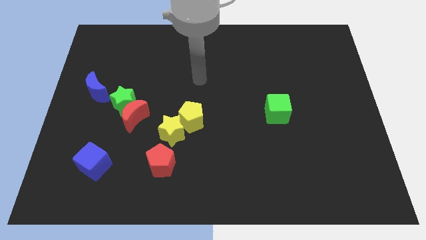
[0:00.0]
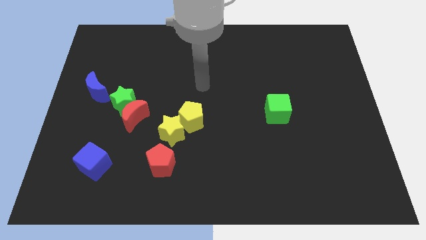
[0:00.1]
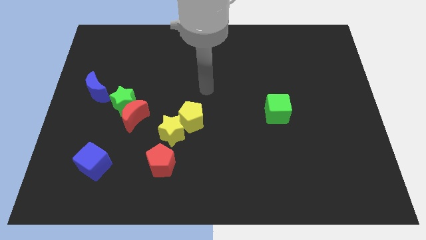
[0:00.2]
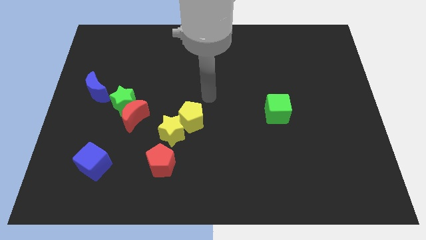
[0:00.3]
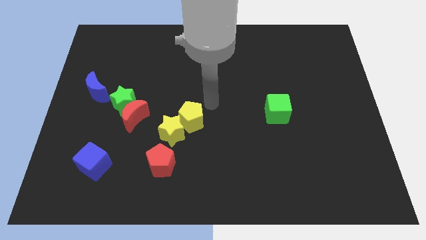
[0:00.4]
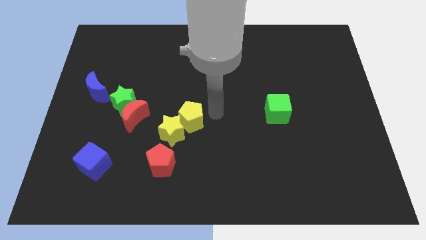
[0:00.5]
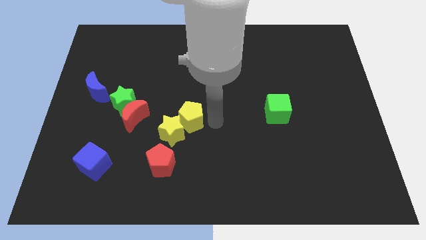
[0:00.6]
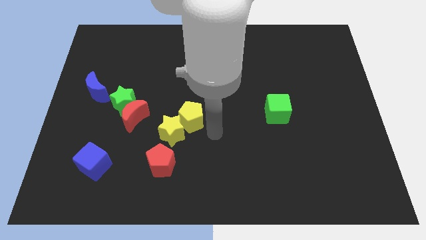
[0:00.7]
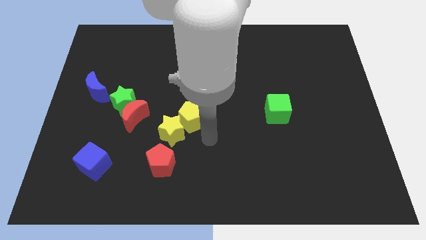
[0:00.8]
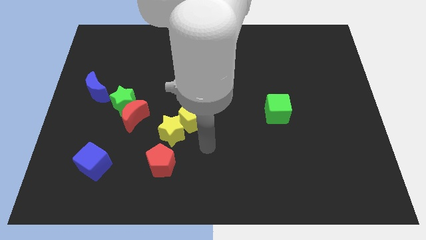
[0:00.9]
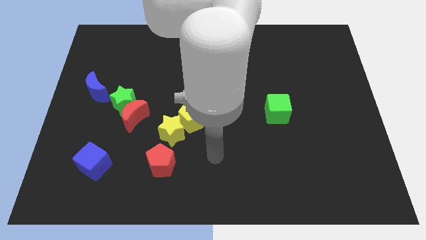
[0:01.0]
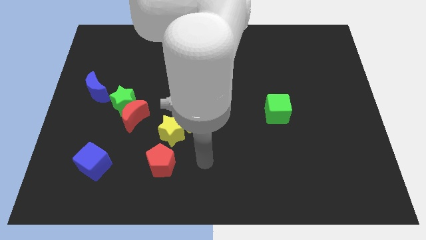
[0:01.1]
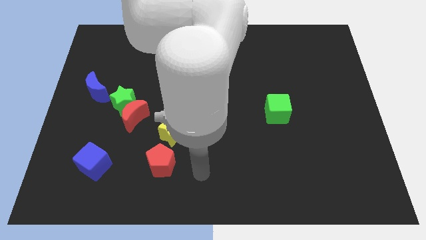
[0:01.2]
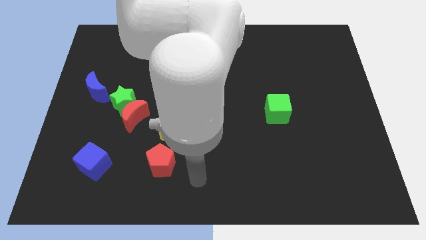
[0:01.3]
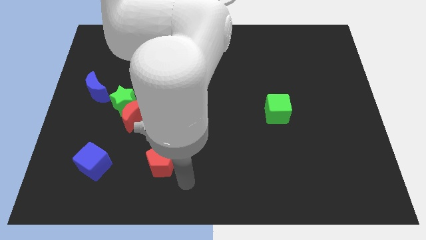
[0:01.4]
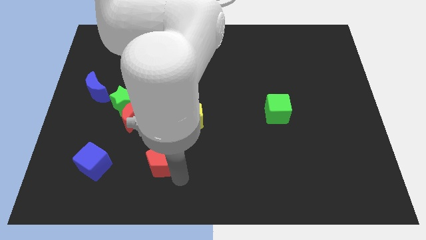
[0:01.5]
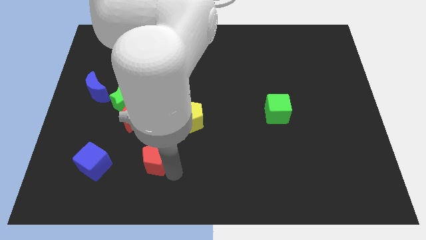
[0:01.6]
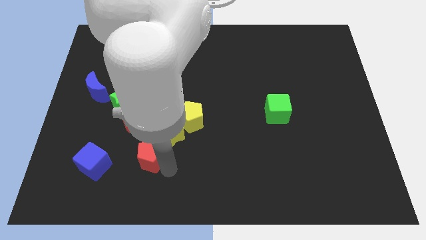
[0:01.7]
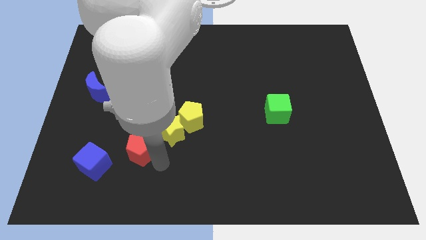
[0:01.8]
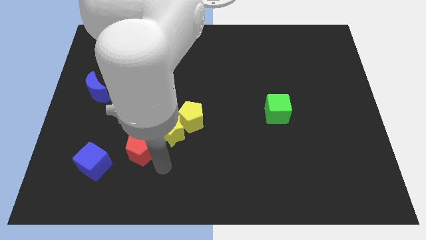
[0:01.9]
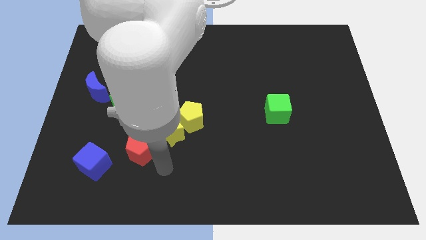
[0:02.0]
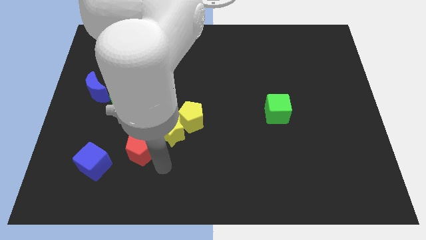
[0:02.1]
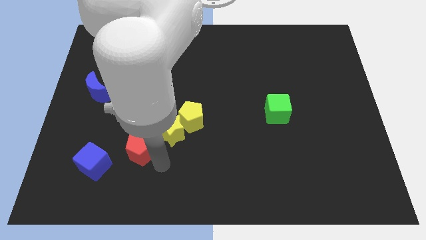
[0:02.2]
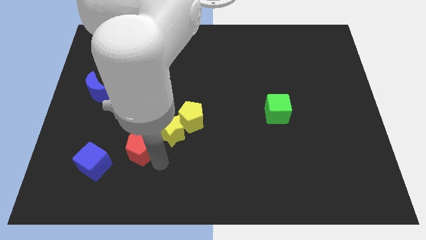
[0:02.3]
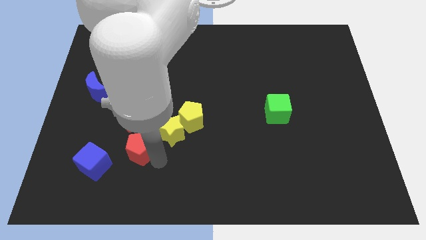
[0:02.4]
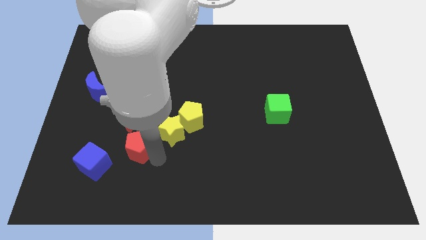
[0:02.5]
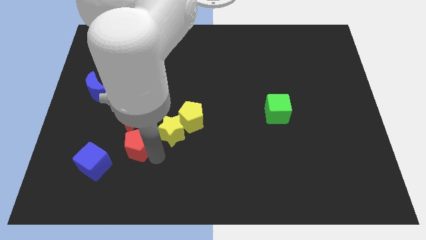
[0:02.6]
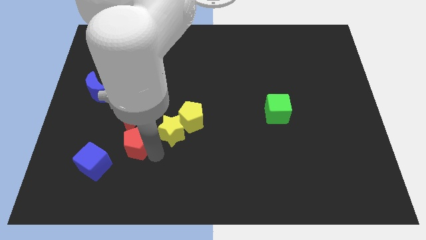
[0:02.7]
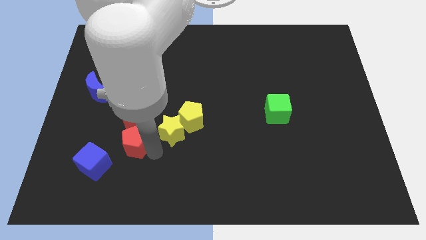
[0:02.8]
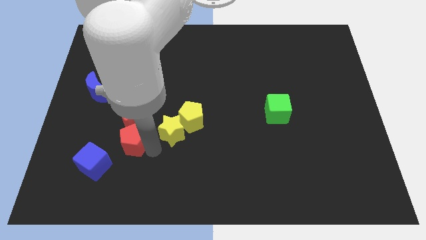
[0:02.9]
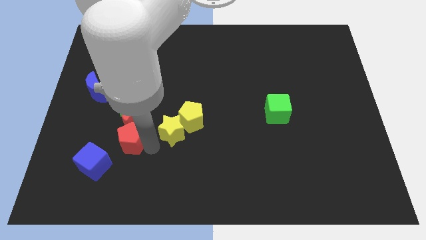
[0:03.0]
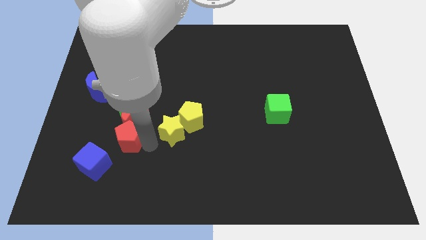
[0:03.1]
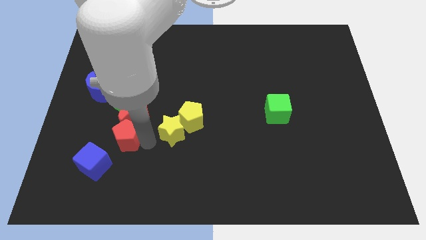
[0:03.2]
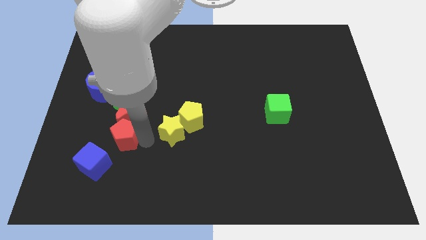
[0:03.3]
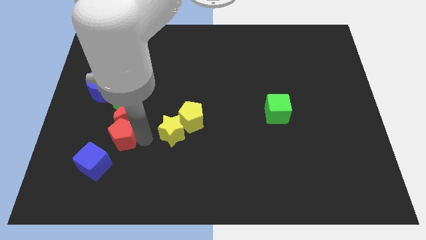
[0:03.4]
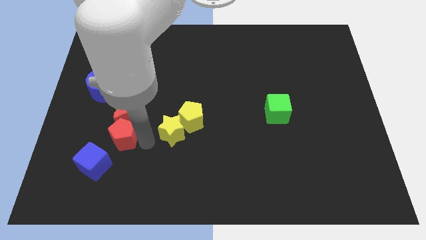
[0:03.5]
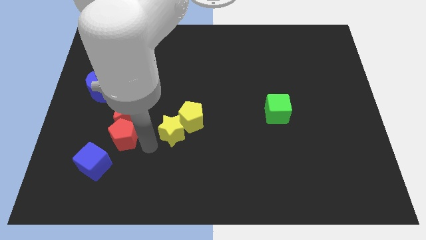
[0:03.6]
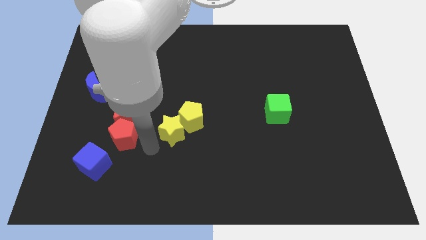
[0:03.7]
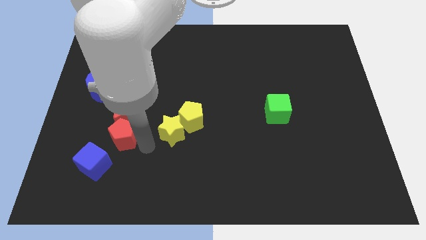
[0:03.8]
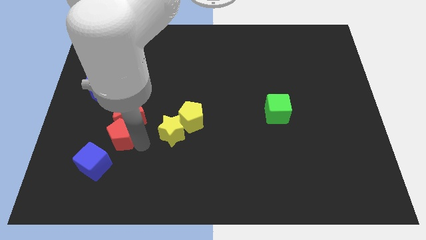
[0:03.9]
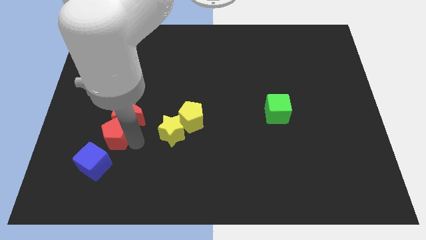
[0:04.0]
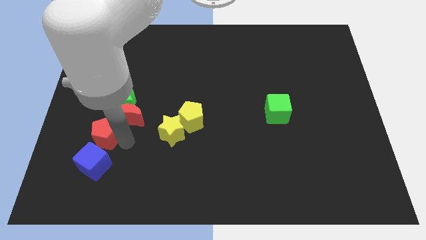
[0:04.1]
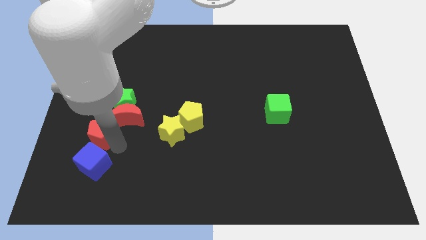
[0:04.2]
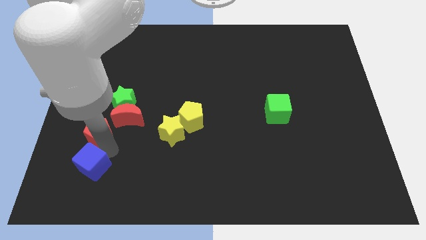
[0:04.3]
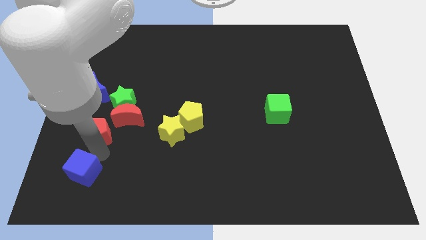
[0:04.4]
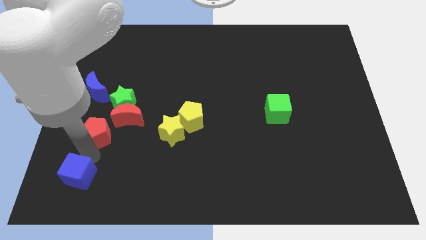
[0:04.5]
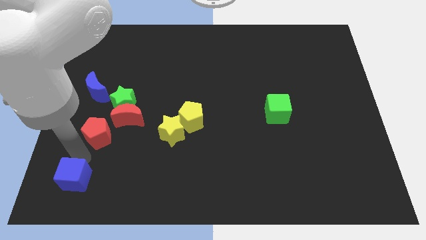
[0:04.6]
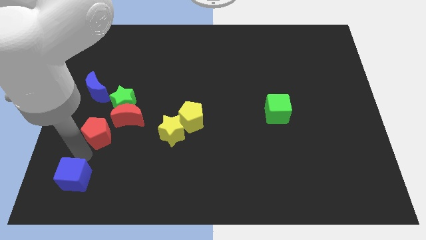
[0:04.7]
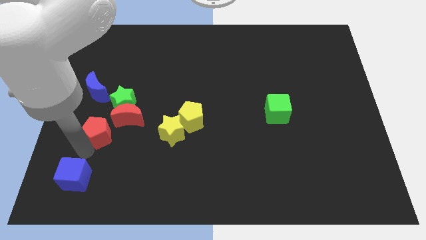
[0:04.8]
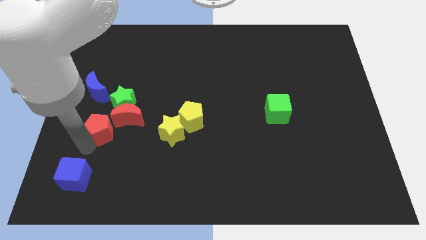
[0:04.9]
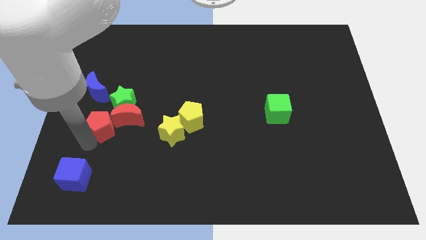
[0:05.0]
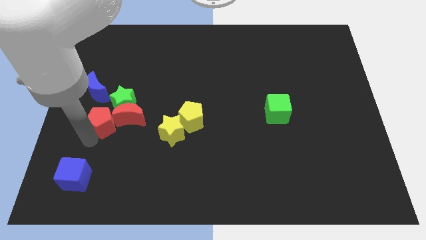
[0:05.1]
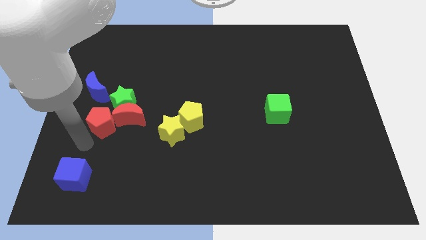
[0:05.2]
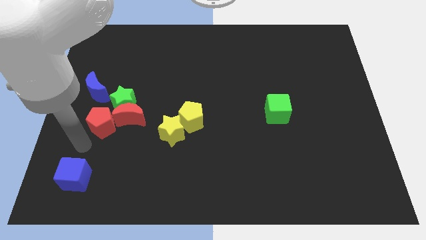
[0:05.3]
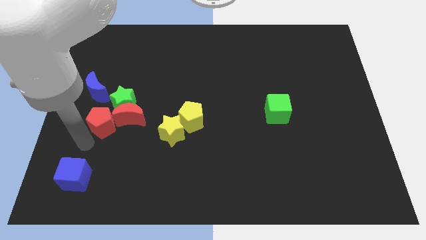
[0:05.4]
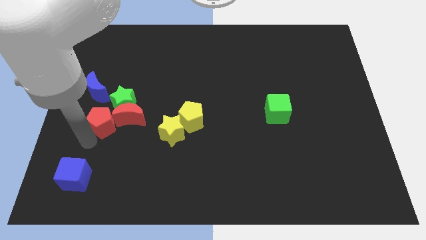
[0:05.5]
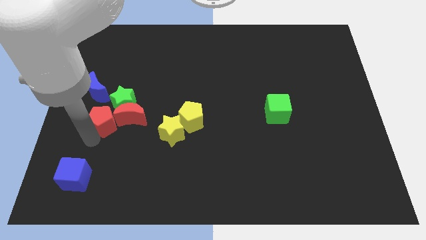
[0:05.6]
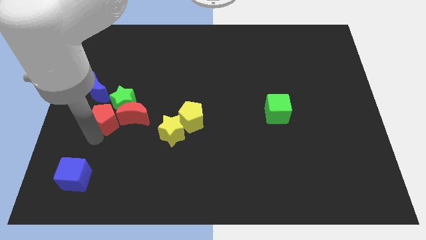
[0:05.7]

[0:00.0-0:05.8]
move the red pentagon close to the green star

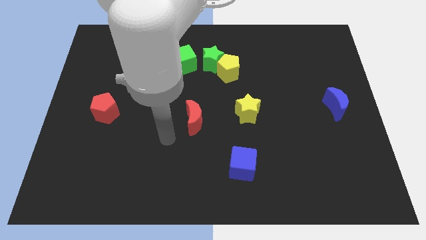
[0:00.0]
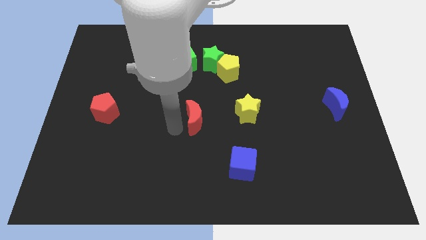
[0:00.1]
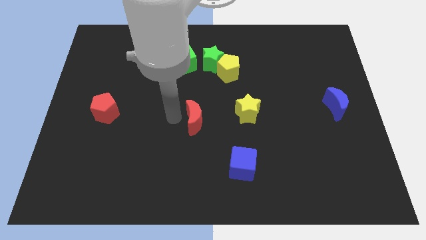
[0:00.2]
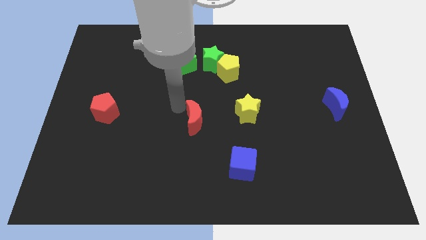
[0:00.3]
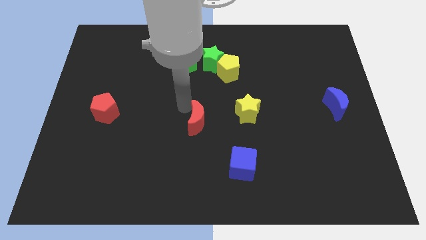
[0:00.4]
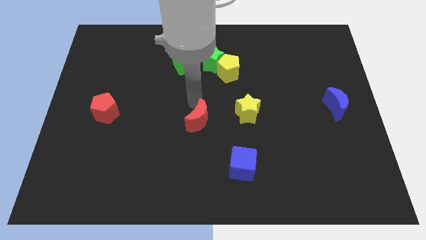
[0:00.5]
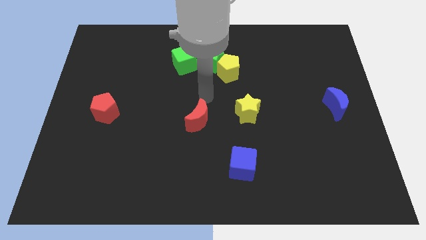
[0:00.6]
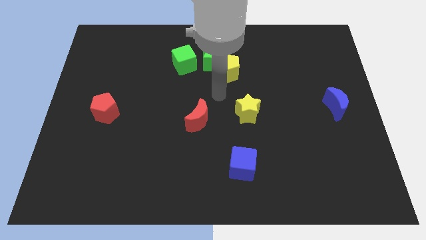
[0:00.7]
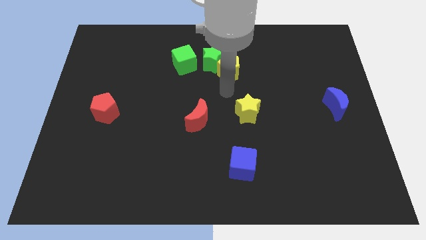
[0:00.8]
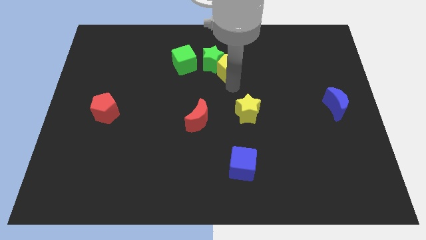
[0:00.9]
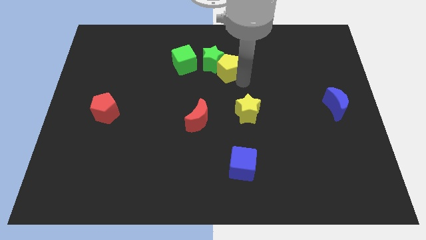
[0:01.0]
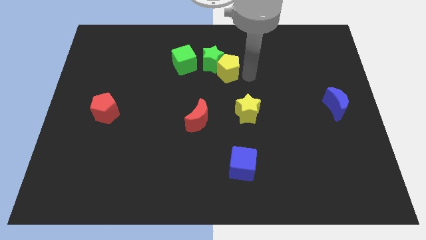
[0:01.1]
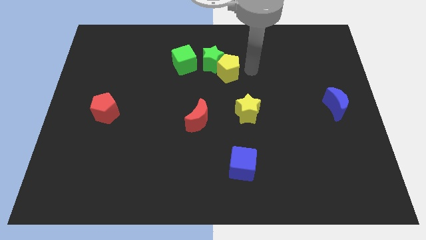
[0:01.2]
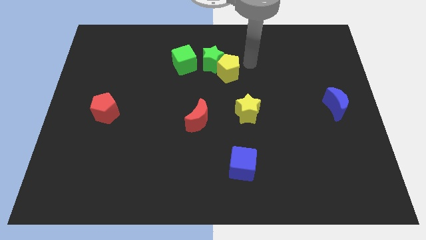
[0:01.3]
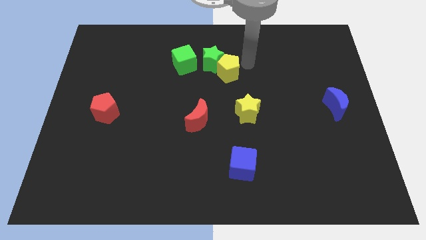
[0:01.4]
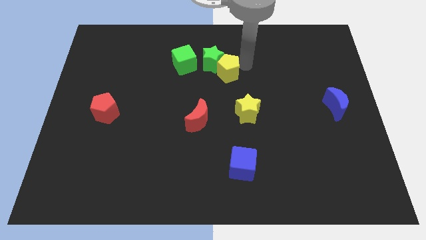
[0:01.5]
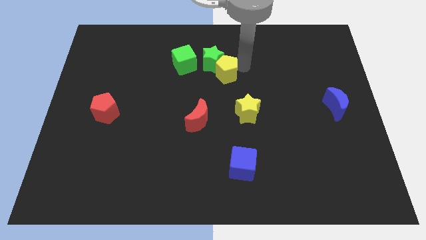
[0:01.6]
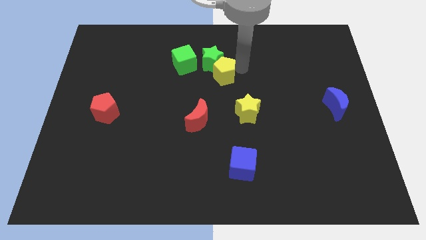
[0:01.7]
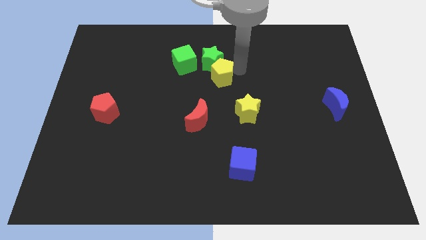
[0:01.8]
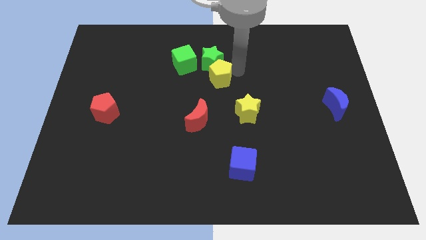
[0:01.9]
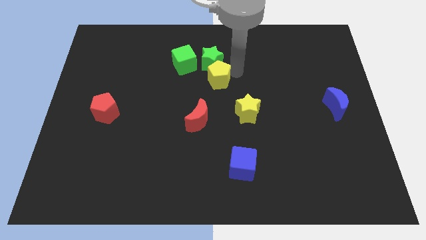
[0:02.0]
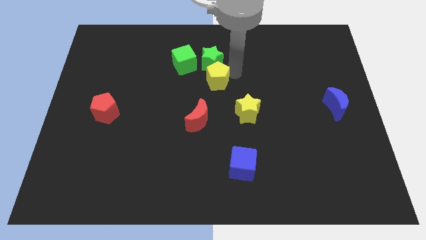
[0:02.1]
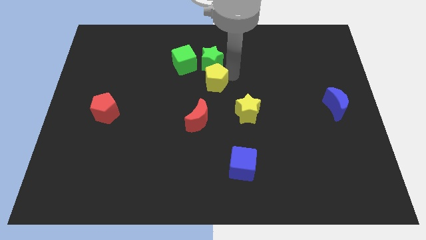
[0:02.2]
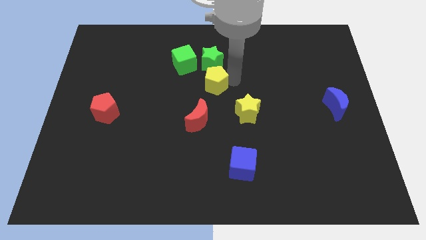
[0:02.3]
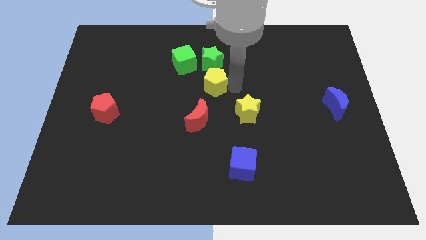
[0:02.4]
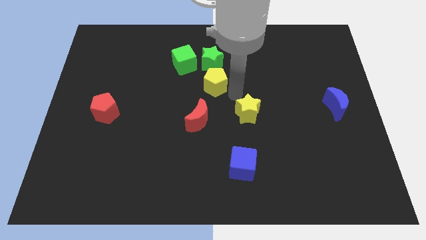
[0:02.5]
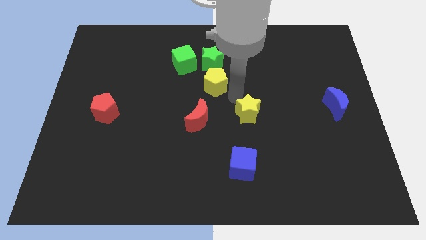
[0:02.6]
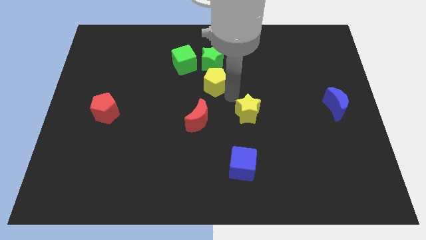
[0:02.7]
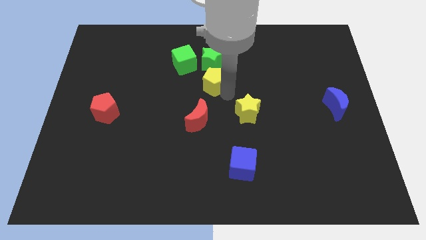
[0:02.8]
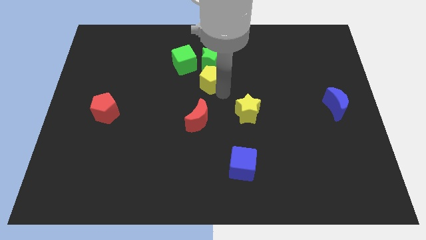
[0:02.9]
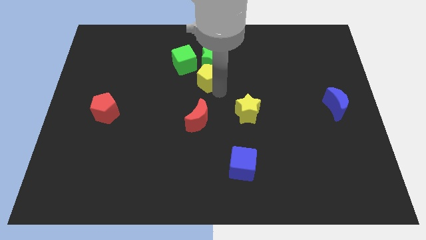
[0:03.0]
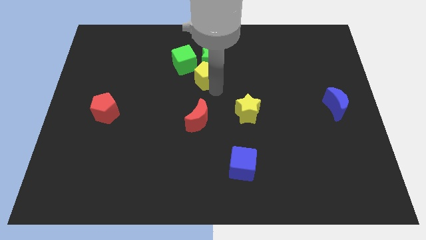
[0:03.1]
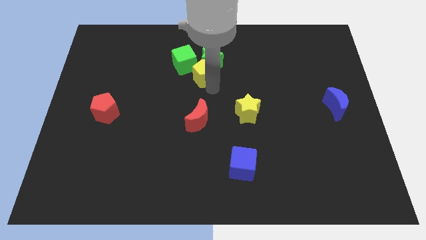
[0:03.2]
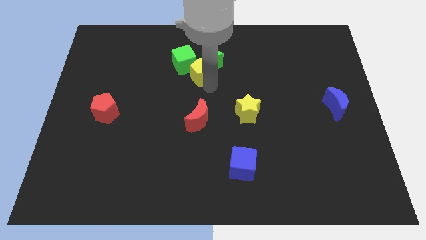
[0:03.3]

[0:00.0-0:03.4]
put the yellow pentagon towards the green cube
